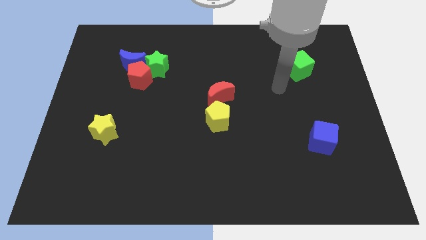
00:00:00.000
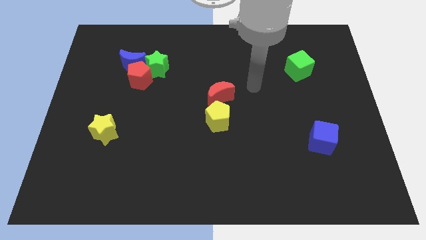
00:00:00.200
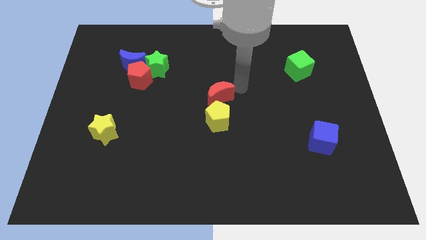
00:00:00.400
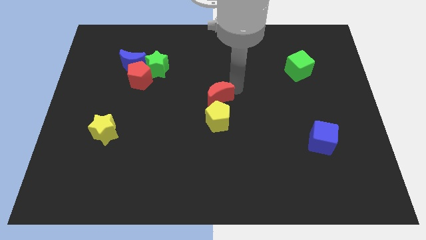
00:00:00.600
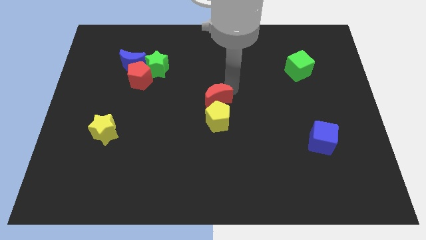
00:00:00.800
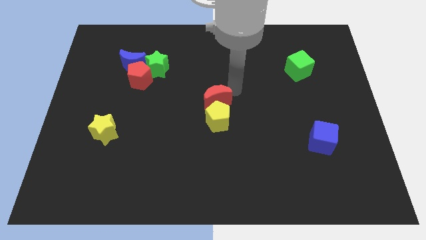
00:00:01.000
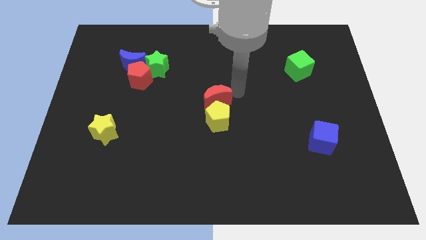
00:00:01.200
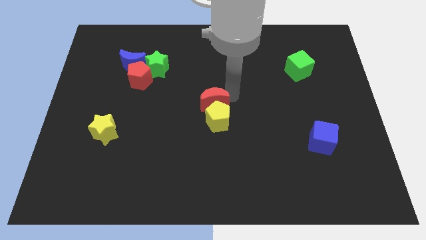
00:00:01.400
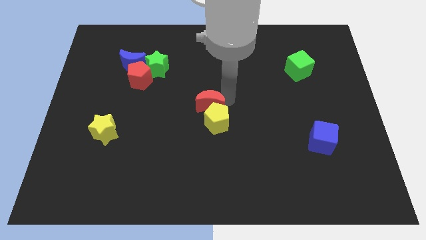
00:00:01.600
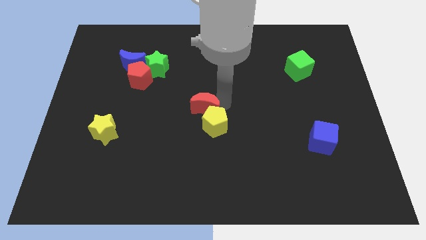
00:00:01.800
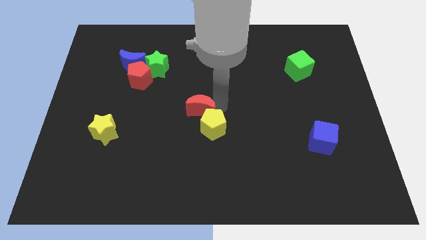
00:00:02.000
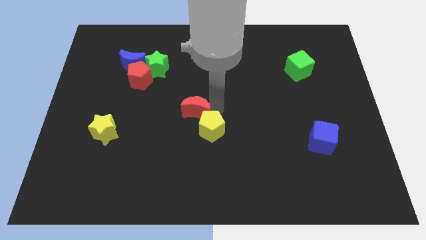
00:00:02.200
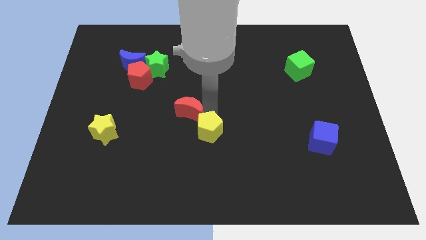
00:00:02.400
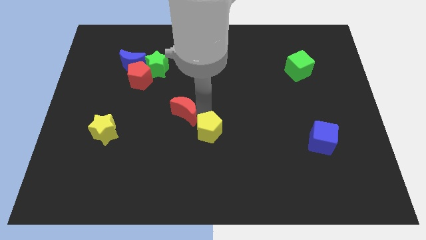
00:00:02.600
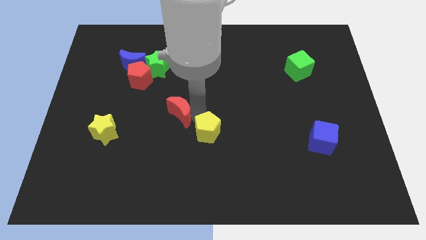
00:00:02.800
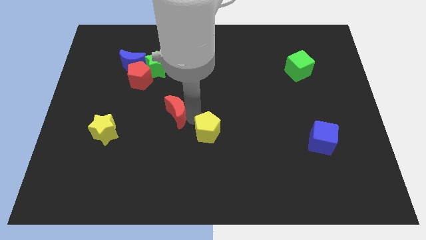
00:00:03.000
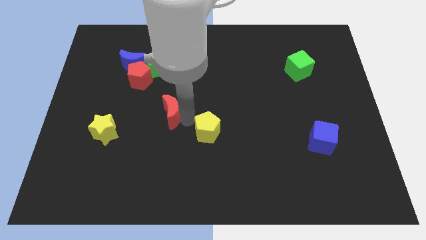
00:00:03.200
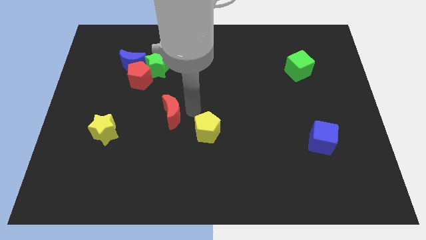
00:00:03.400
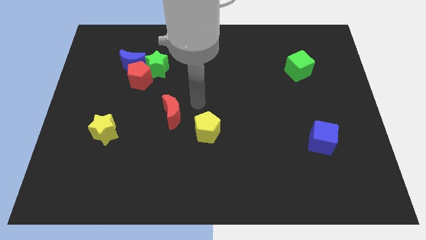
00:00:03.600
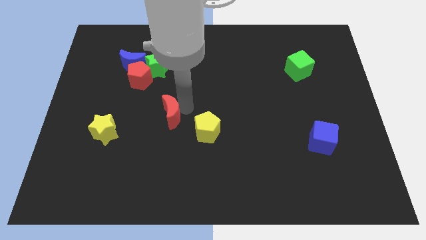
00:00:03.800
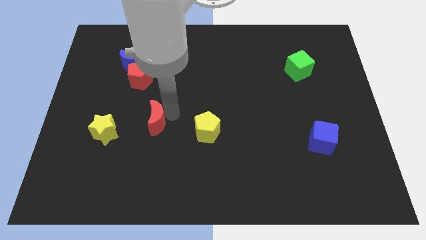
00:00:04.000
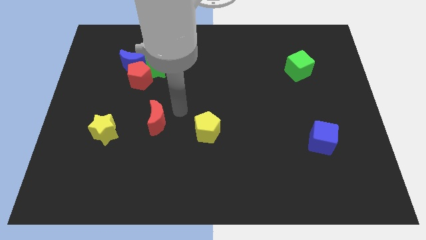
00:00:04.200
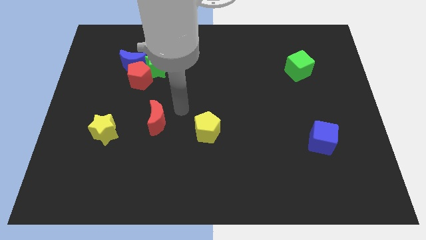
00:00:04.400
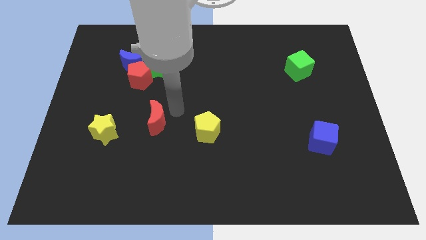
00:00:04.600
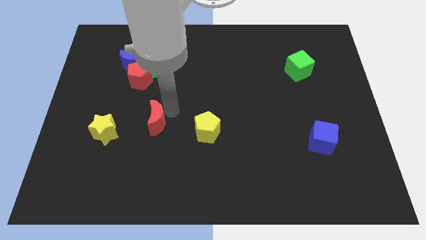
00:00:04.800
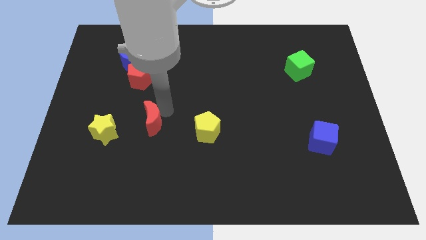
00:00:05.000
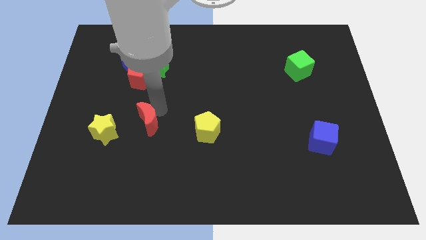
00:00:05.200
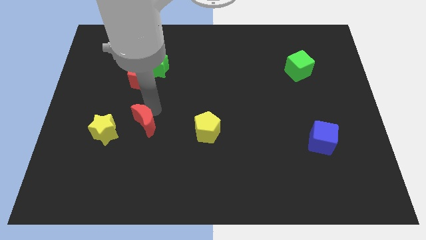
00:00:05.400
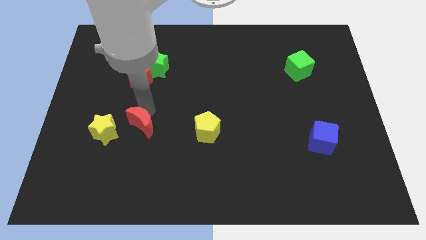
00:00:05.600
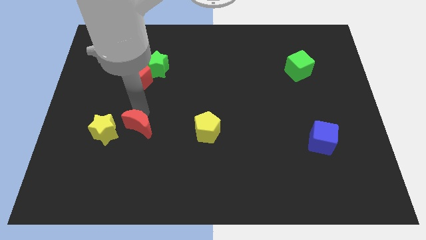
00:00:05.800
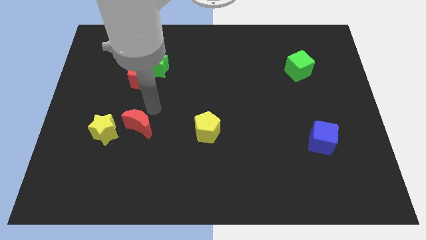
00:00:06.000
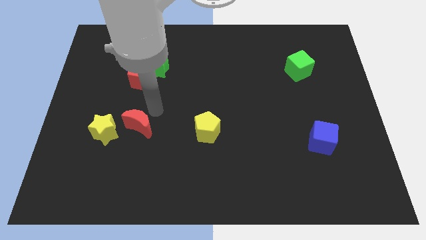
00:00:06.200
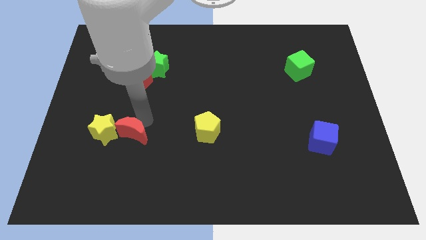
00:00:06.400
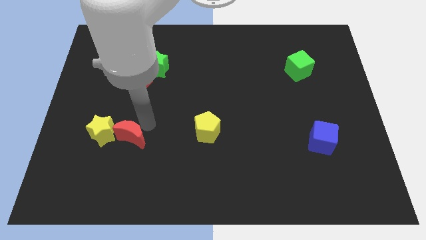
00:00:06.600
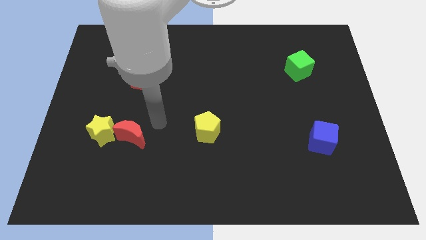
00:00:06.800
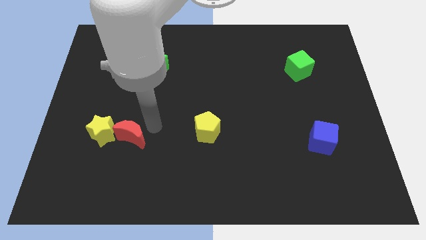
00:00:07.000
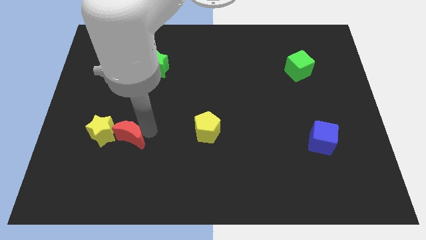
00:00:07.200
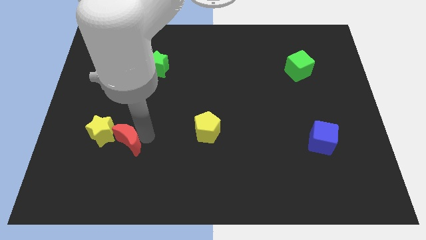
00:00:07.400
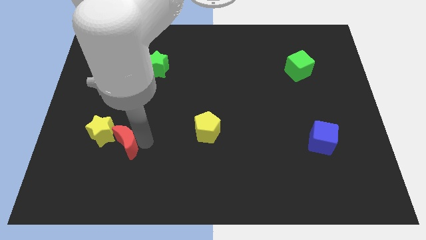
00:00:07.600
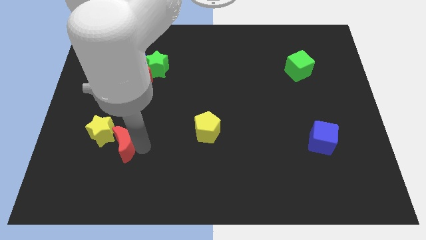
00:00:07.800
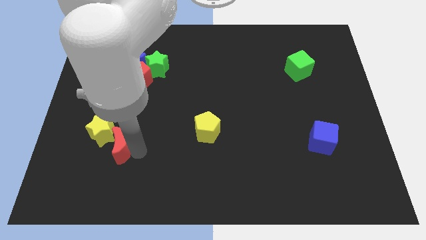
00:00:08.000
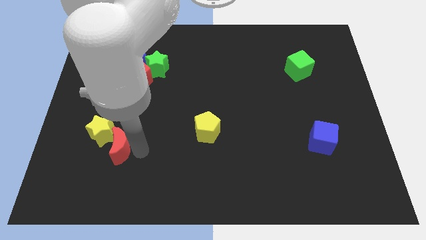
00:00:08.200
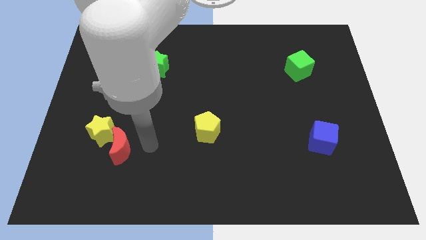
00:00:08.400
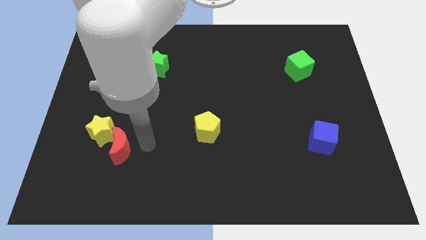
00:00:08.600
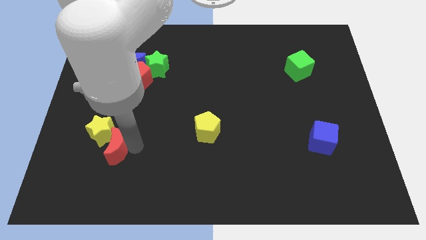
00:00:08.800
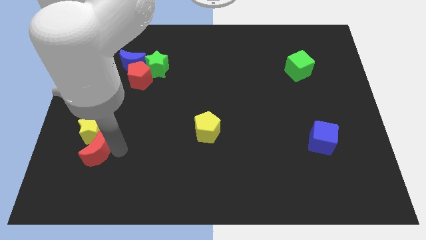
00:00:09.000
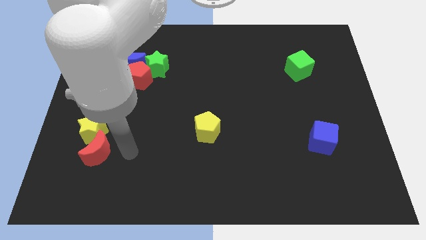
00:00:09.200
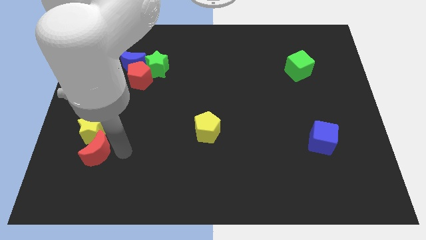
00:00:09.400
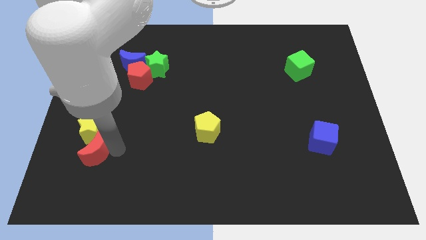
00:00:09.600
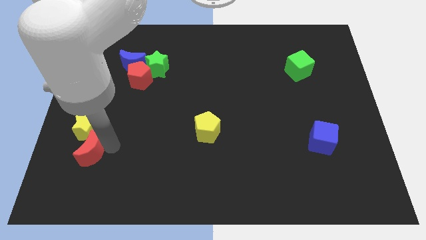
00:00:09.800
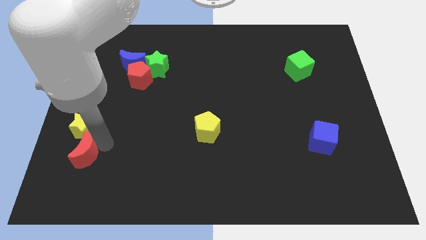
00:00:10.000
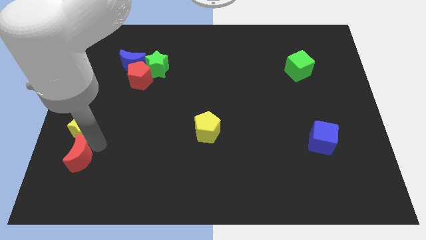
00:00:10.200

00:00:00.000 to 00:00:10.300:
move the red moon to the bottom left of the yellow star

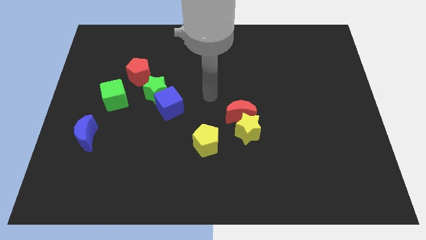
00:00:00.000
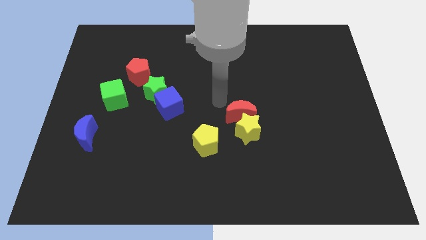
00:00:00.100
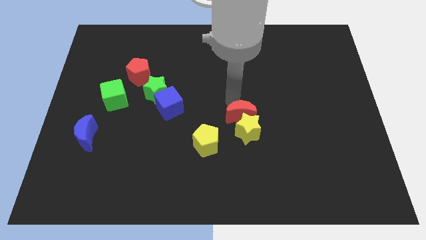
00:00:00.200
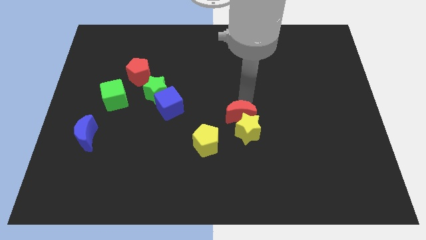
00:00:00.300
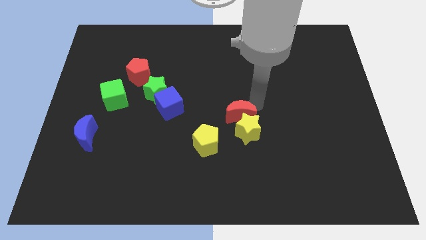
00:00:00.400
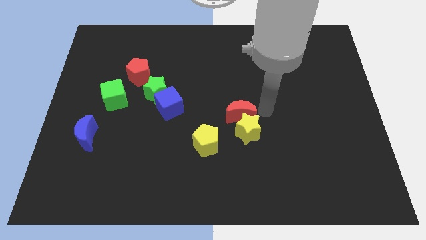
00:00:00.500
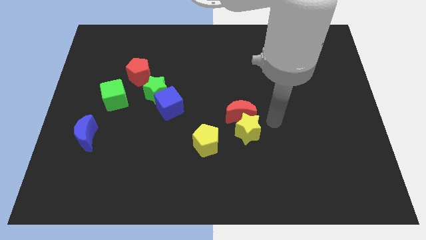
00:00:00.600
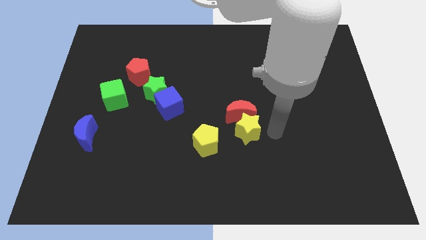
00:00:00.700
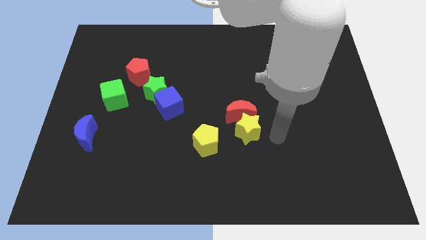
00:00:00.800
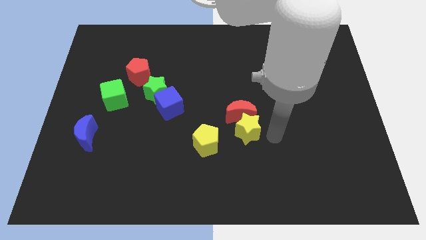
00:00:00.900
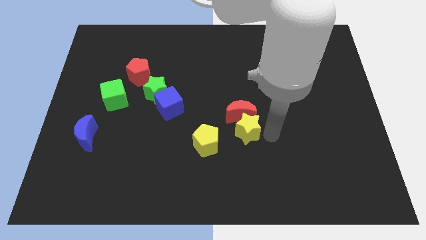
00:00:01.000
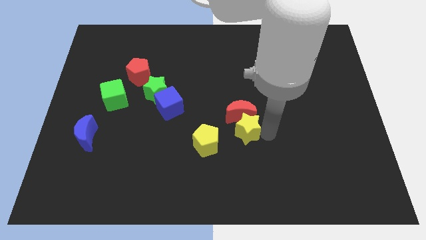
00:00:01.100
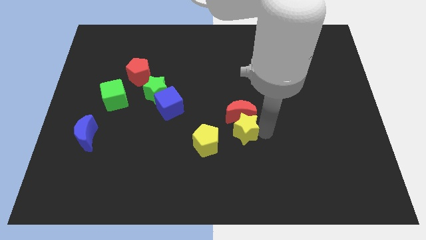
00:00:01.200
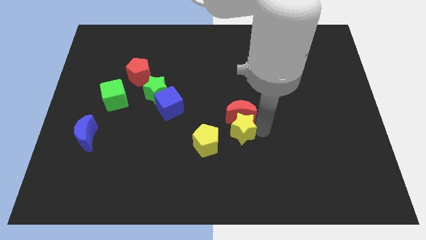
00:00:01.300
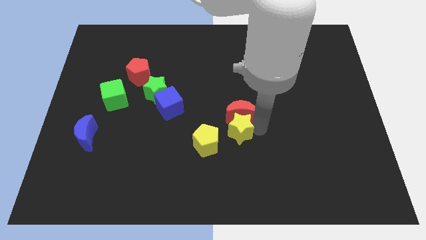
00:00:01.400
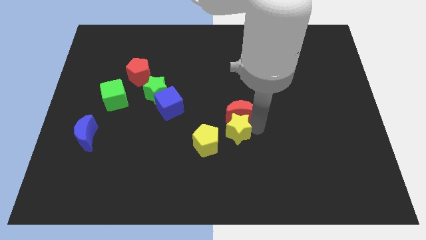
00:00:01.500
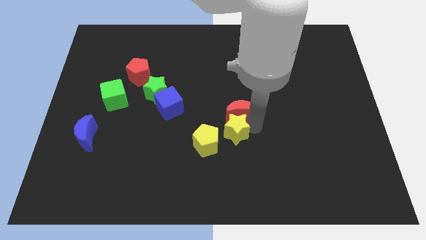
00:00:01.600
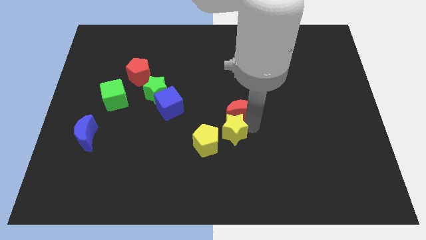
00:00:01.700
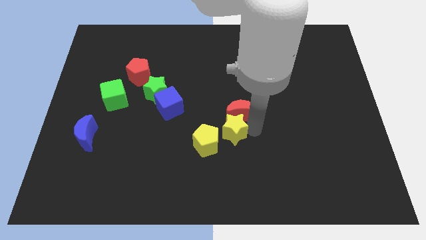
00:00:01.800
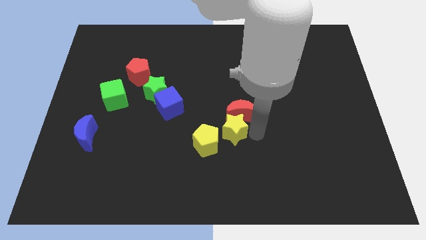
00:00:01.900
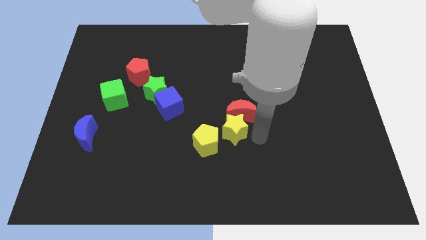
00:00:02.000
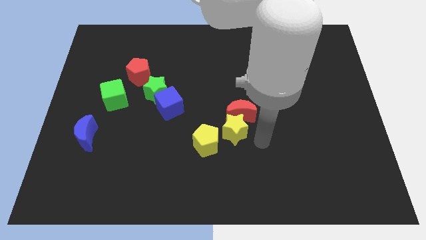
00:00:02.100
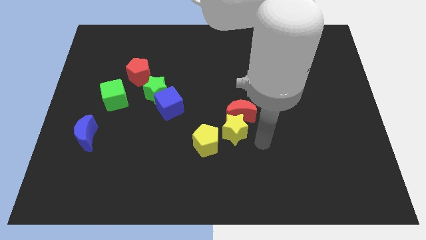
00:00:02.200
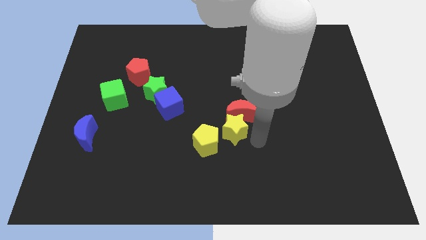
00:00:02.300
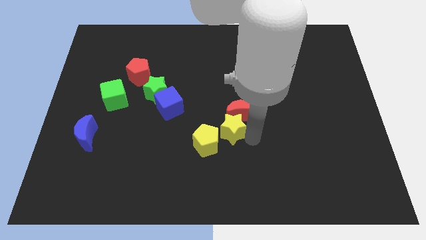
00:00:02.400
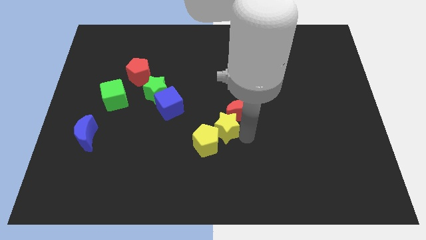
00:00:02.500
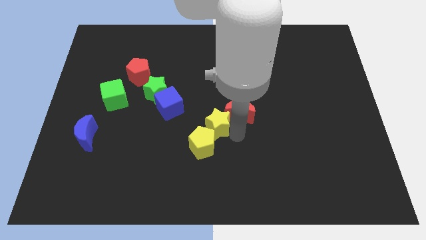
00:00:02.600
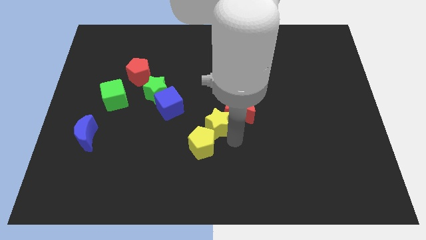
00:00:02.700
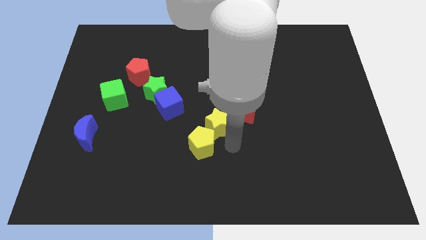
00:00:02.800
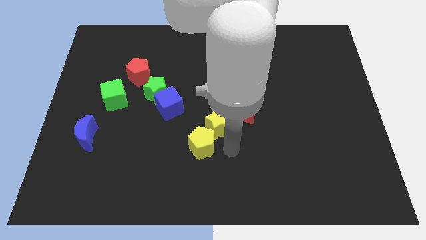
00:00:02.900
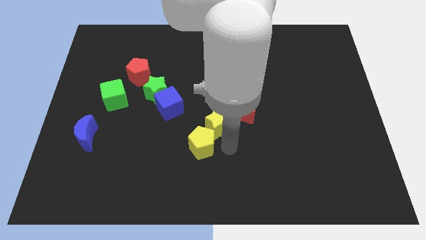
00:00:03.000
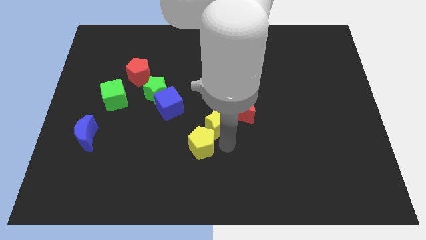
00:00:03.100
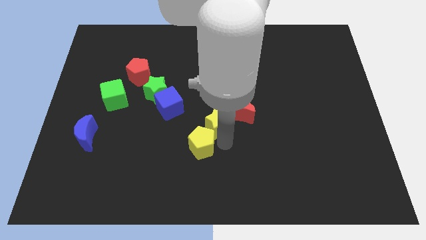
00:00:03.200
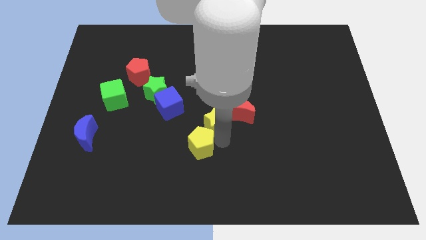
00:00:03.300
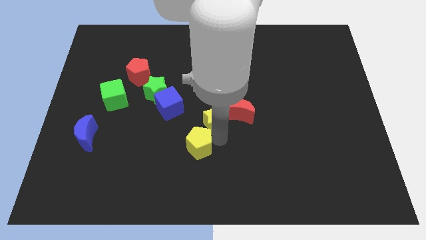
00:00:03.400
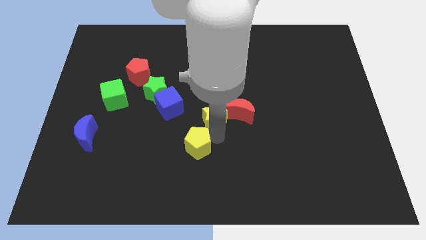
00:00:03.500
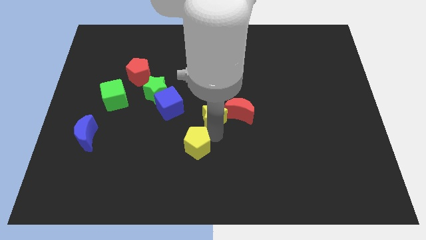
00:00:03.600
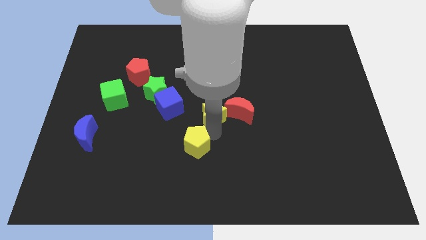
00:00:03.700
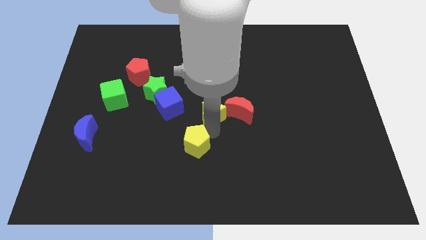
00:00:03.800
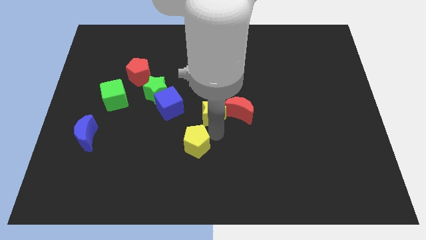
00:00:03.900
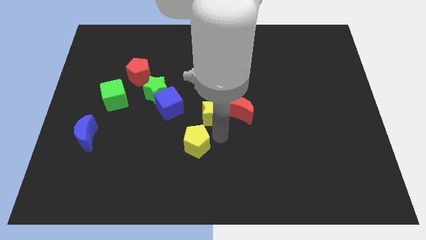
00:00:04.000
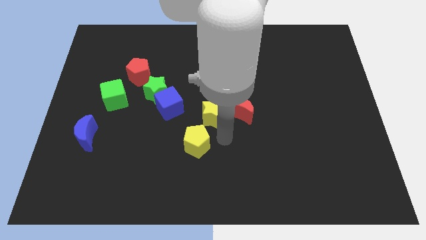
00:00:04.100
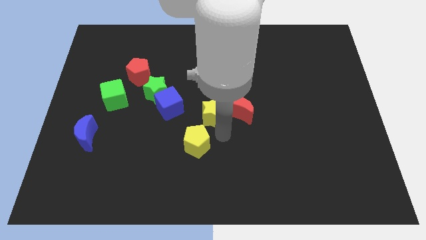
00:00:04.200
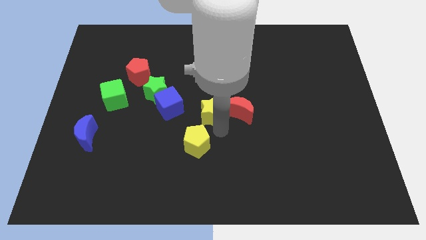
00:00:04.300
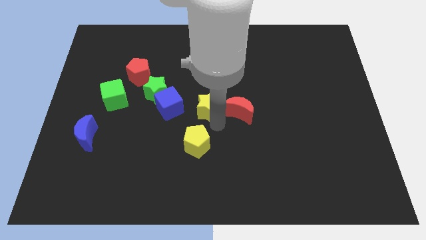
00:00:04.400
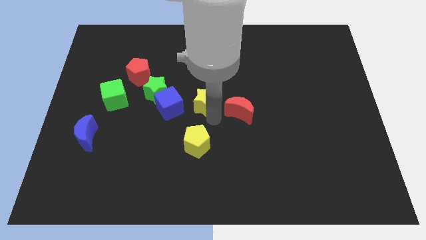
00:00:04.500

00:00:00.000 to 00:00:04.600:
move the yellow star to the right side of the green star
